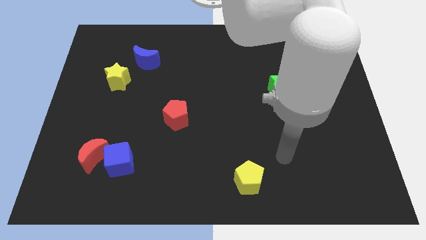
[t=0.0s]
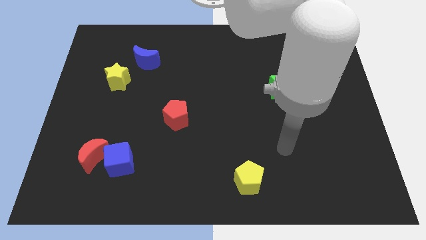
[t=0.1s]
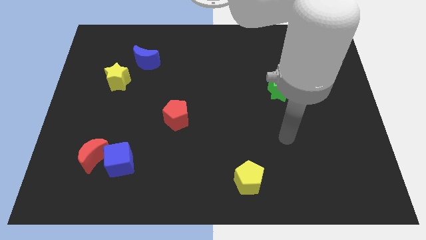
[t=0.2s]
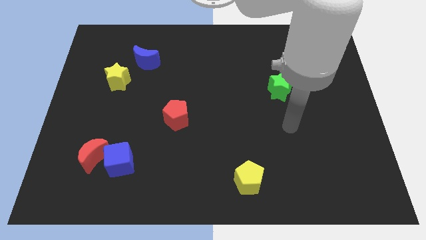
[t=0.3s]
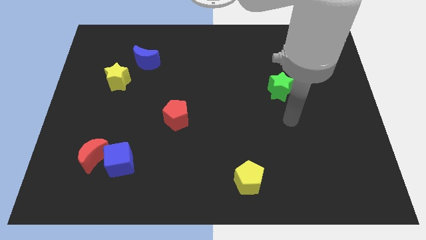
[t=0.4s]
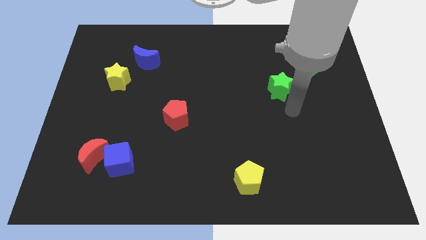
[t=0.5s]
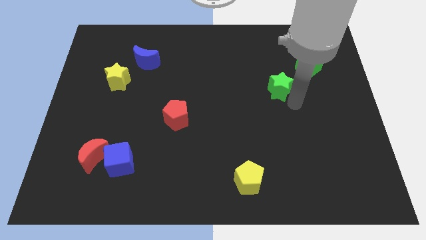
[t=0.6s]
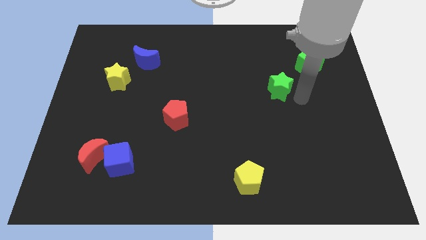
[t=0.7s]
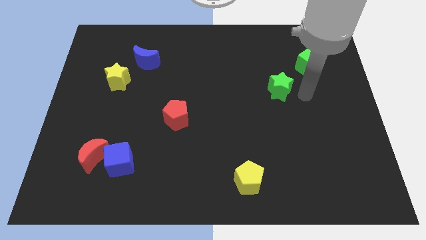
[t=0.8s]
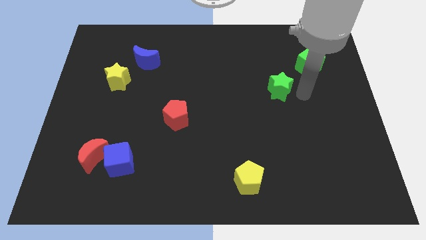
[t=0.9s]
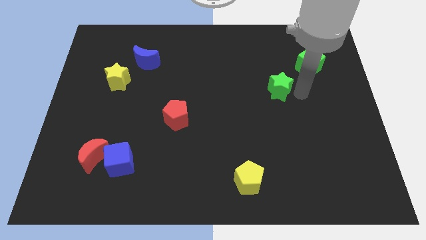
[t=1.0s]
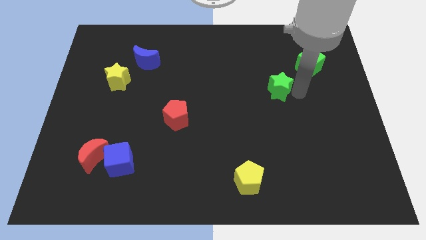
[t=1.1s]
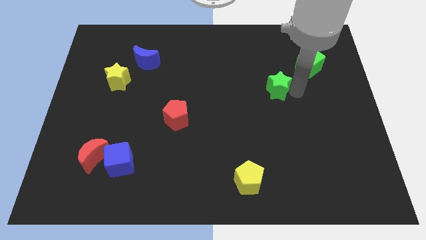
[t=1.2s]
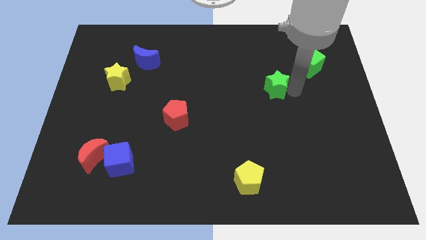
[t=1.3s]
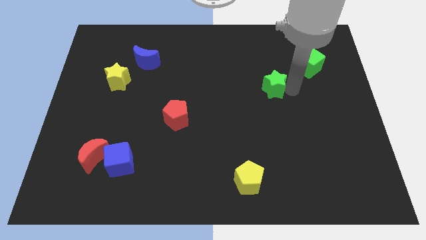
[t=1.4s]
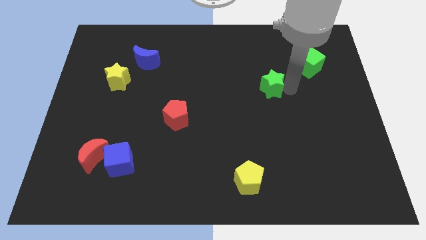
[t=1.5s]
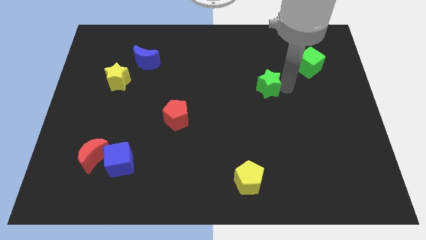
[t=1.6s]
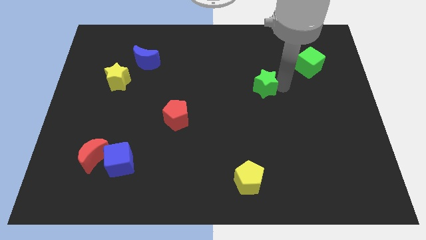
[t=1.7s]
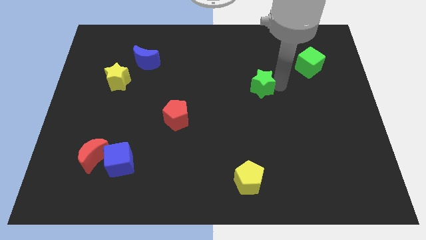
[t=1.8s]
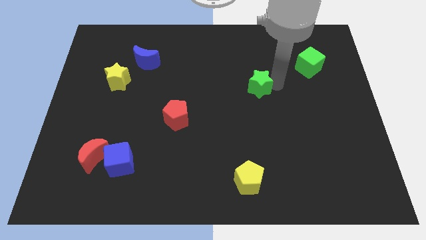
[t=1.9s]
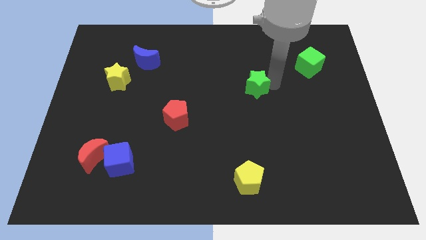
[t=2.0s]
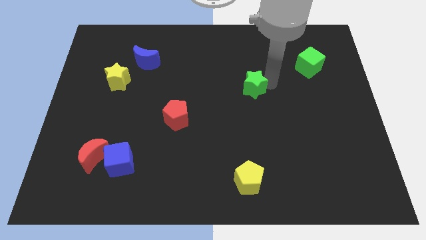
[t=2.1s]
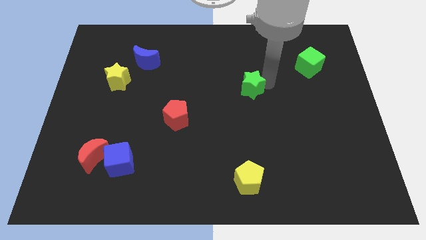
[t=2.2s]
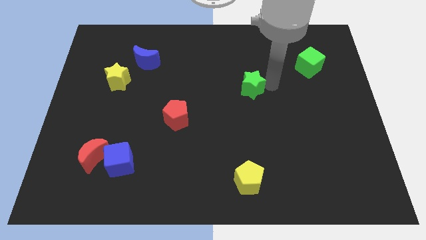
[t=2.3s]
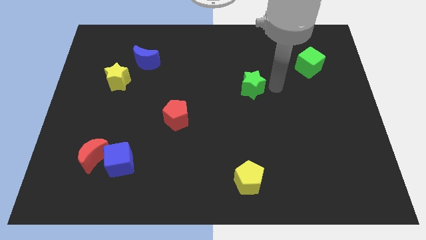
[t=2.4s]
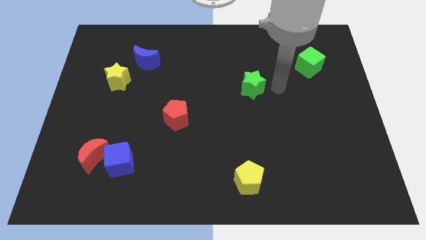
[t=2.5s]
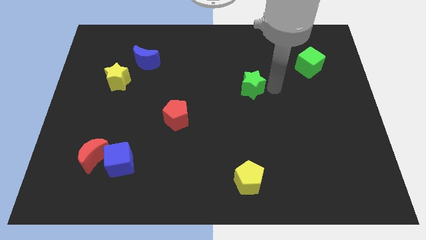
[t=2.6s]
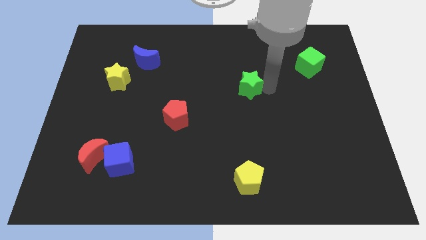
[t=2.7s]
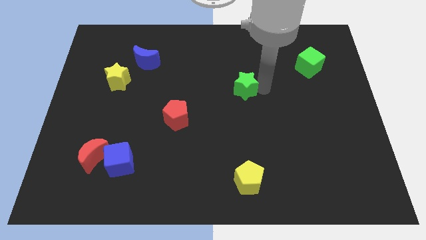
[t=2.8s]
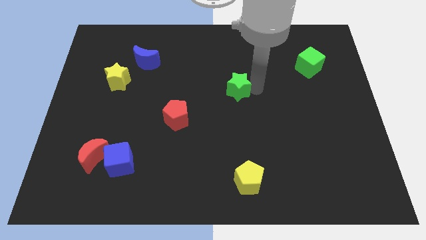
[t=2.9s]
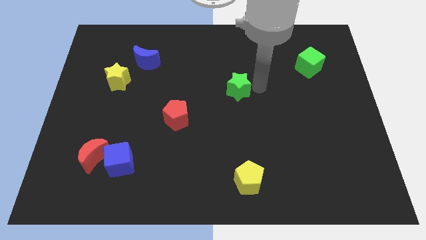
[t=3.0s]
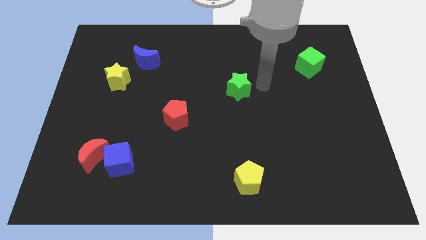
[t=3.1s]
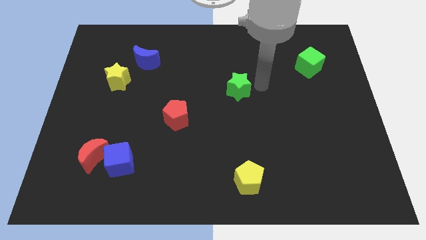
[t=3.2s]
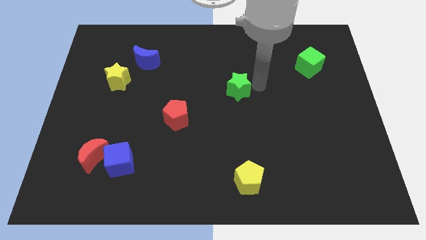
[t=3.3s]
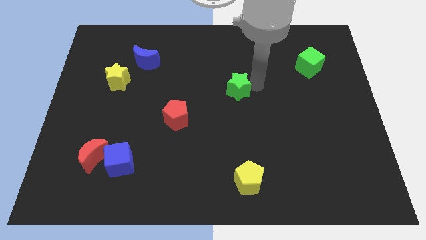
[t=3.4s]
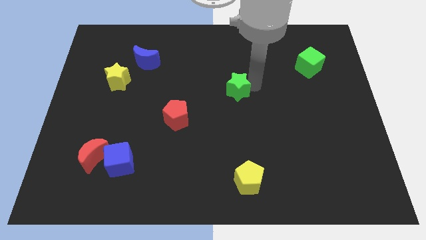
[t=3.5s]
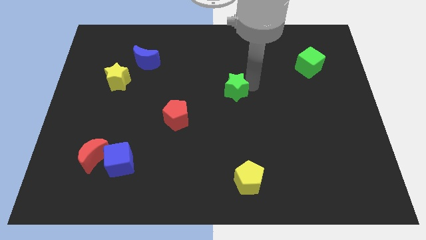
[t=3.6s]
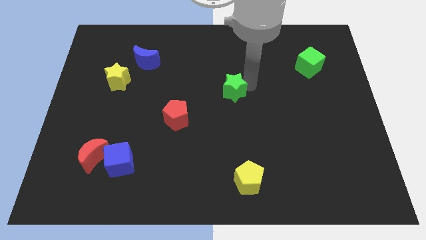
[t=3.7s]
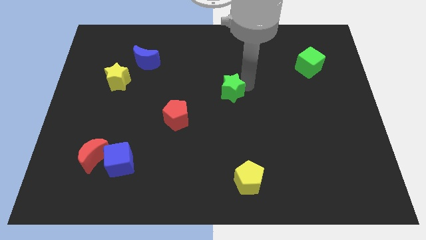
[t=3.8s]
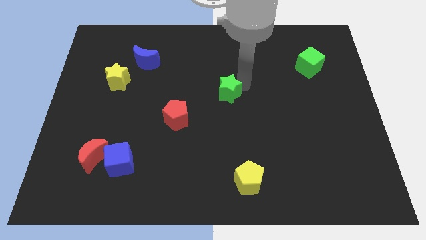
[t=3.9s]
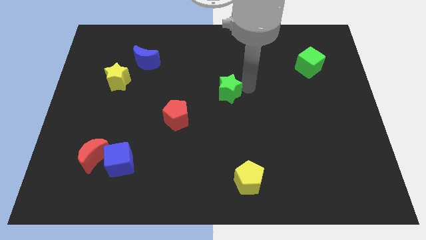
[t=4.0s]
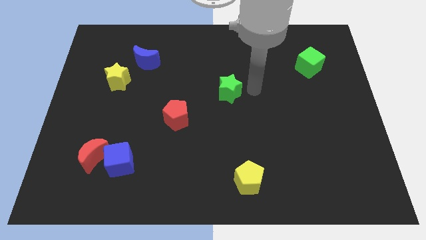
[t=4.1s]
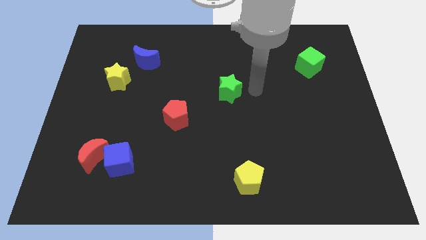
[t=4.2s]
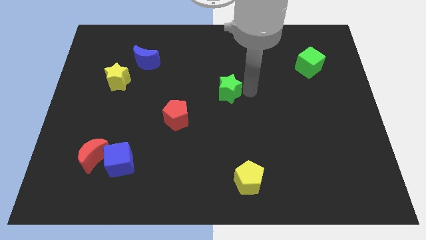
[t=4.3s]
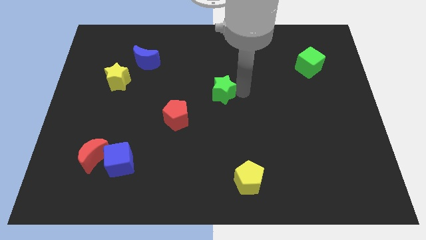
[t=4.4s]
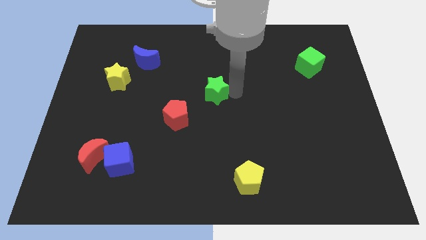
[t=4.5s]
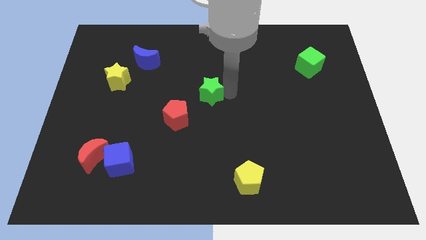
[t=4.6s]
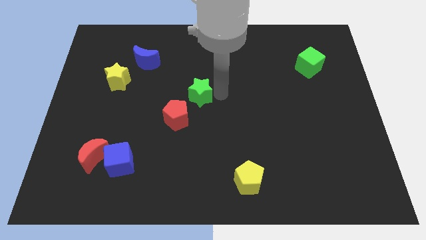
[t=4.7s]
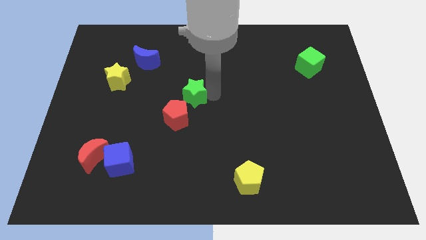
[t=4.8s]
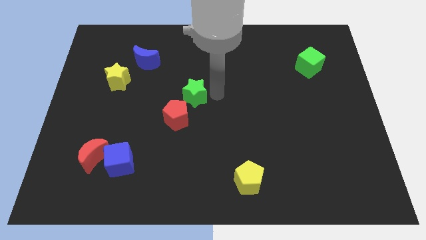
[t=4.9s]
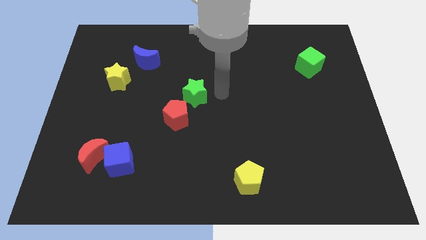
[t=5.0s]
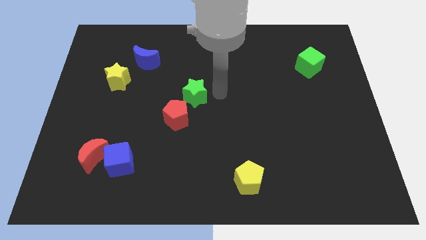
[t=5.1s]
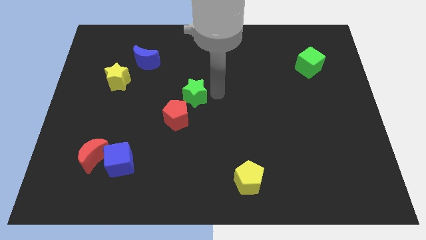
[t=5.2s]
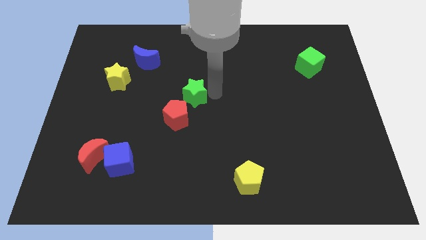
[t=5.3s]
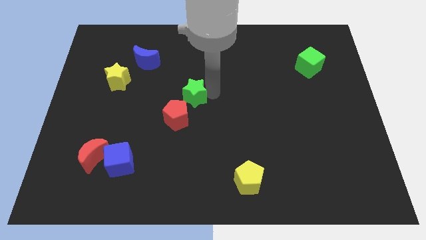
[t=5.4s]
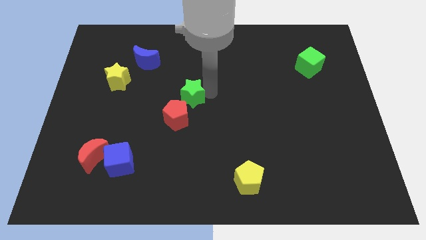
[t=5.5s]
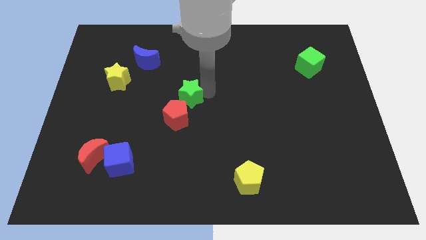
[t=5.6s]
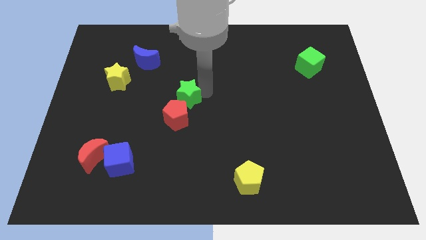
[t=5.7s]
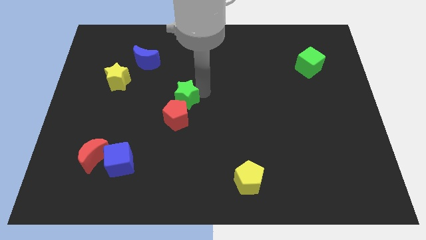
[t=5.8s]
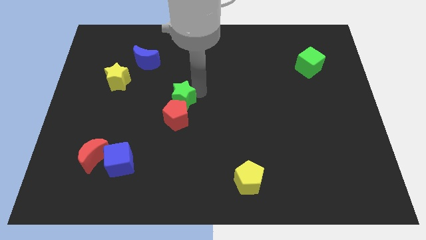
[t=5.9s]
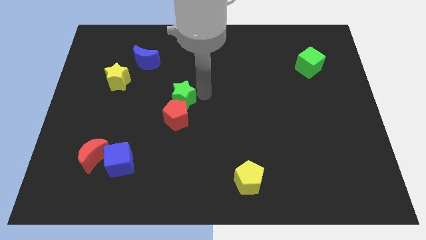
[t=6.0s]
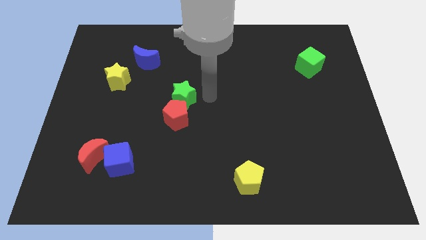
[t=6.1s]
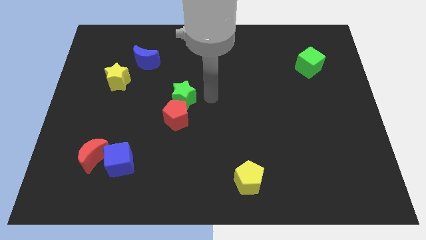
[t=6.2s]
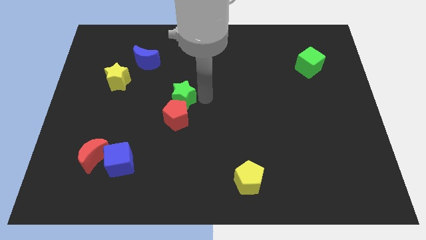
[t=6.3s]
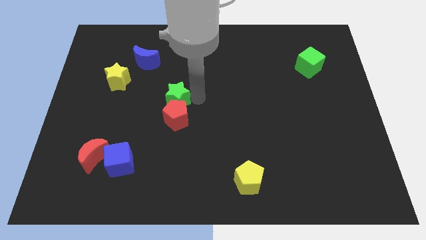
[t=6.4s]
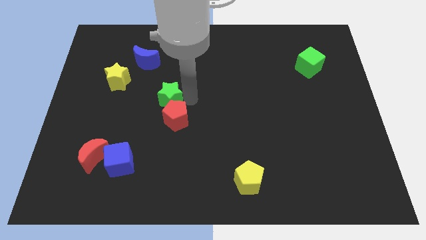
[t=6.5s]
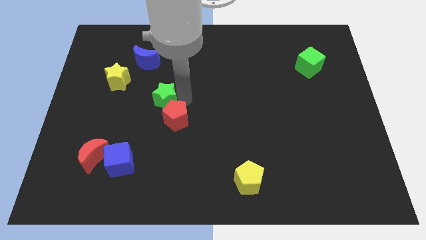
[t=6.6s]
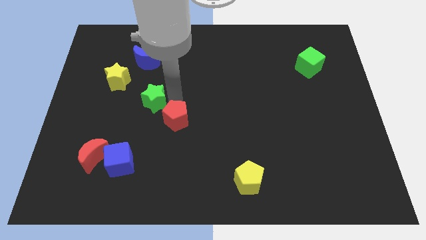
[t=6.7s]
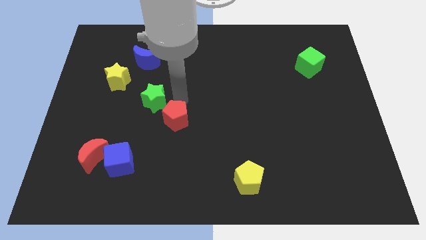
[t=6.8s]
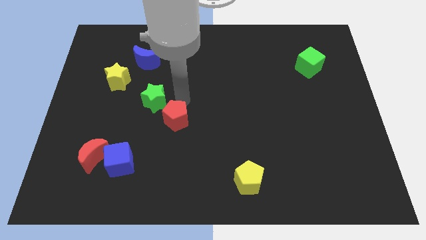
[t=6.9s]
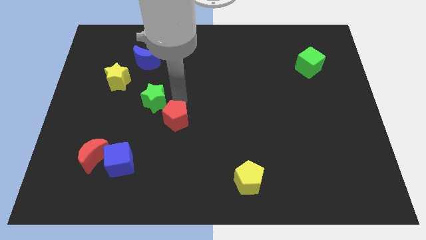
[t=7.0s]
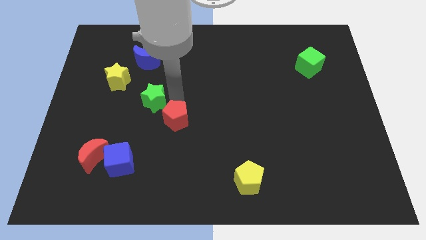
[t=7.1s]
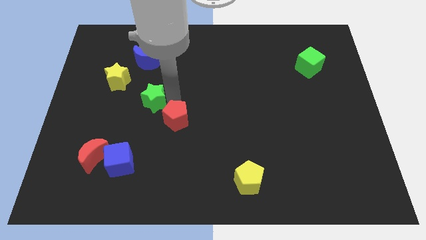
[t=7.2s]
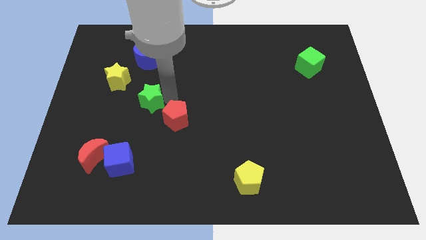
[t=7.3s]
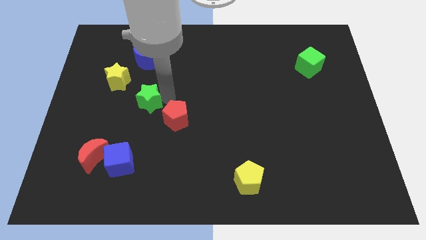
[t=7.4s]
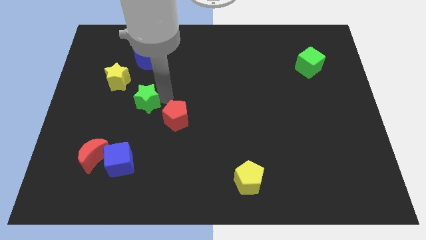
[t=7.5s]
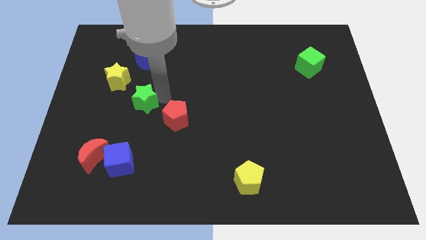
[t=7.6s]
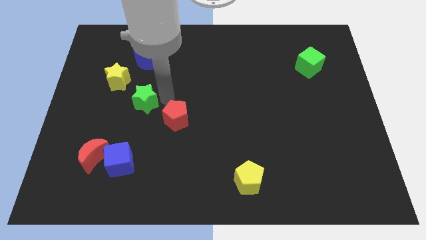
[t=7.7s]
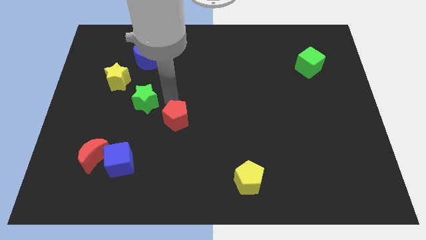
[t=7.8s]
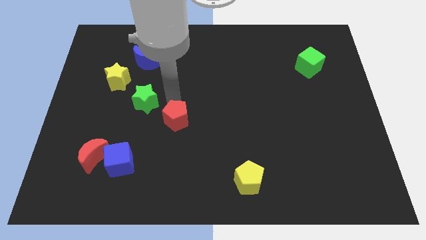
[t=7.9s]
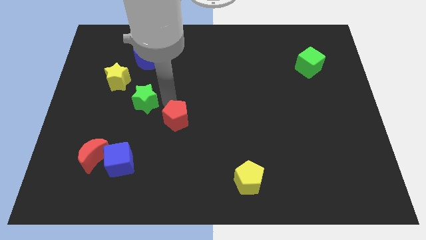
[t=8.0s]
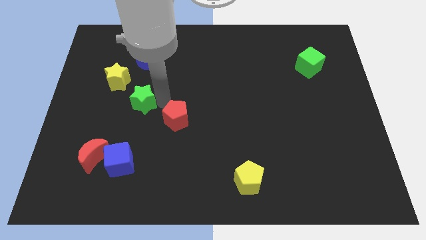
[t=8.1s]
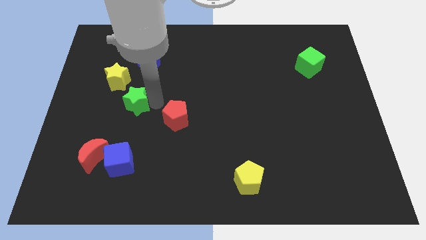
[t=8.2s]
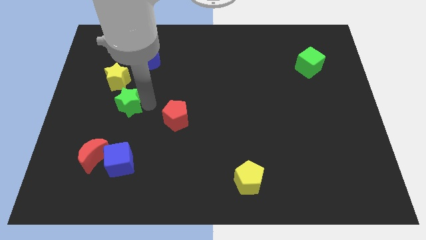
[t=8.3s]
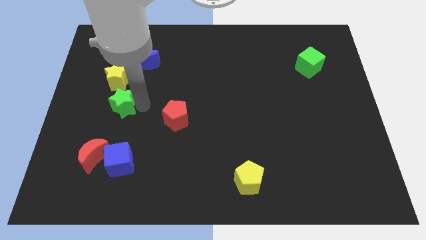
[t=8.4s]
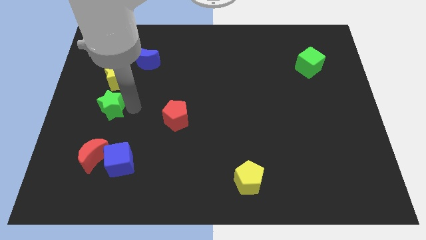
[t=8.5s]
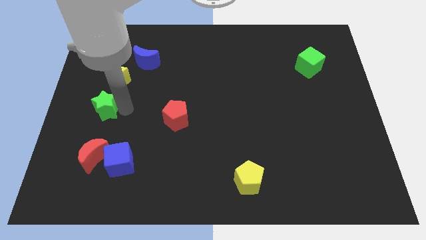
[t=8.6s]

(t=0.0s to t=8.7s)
slide the green star to the left side
